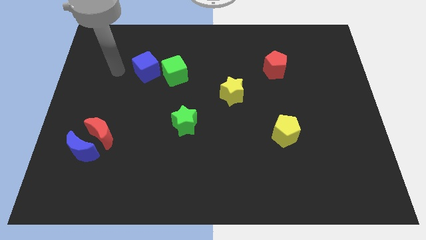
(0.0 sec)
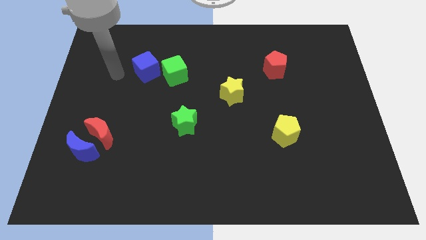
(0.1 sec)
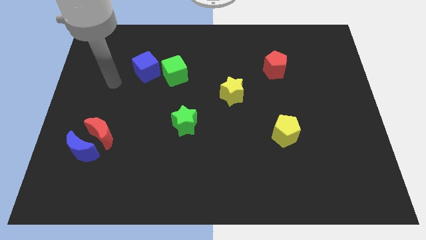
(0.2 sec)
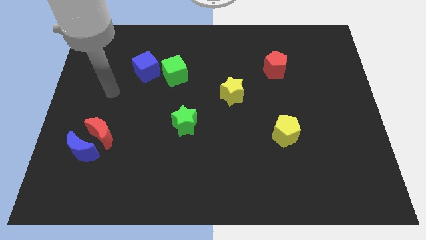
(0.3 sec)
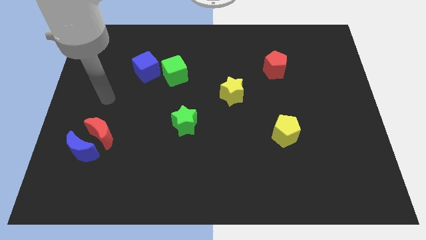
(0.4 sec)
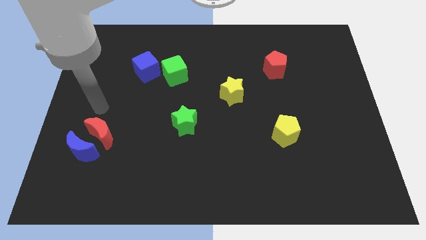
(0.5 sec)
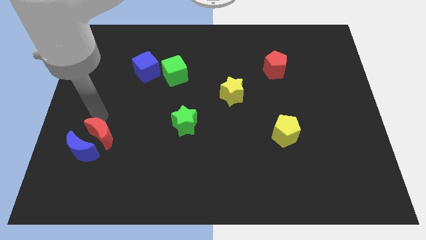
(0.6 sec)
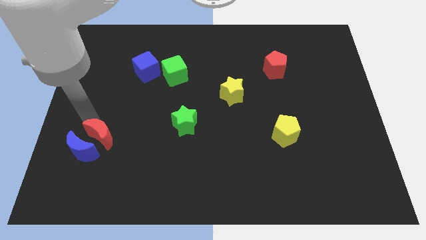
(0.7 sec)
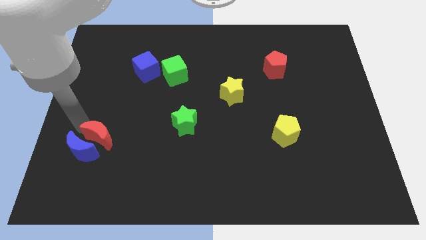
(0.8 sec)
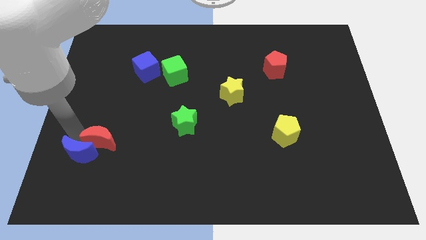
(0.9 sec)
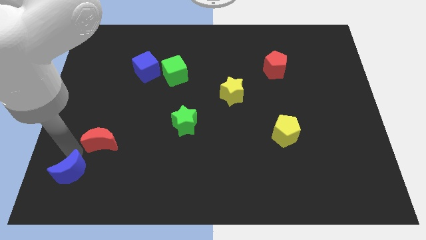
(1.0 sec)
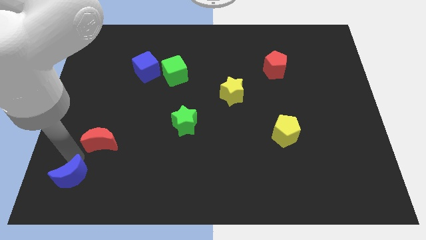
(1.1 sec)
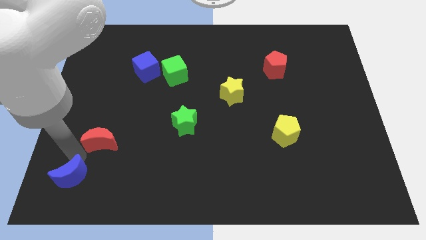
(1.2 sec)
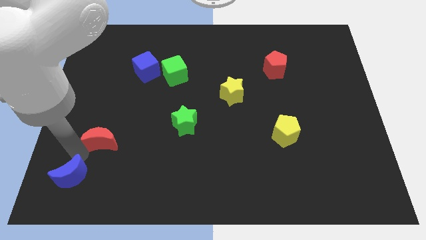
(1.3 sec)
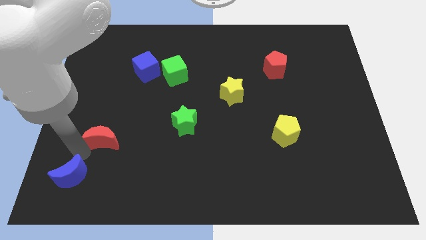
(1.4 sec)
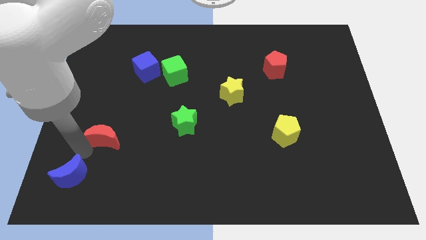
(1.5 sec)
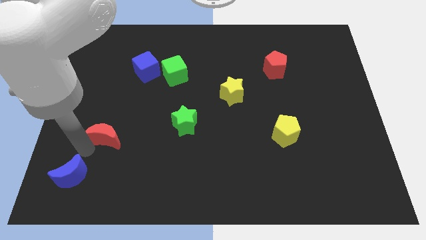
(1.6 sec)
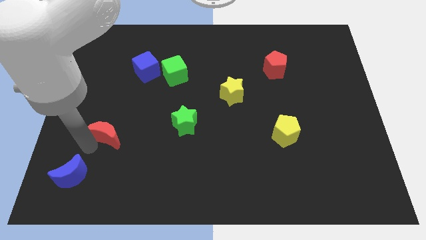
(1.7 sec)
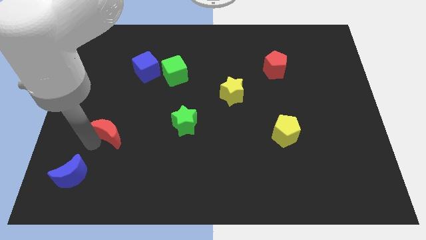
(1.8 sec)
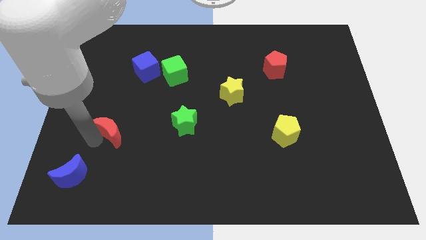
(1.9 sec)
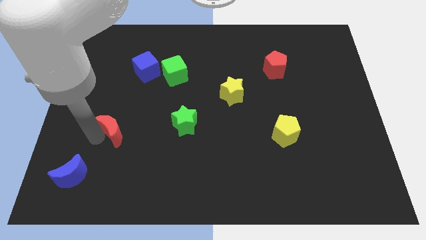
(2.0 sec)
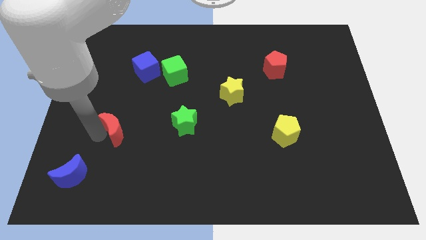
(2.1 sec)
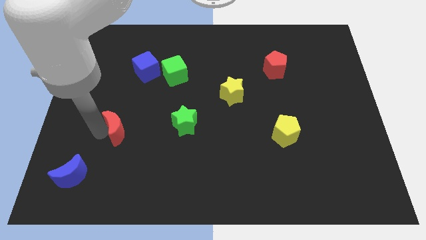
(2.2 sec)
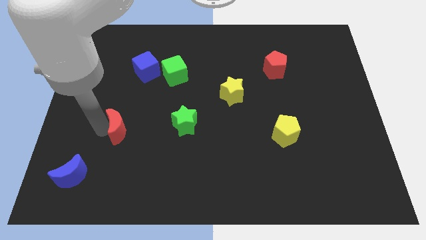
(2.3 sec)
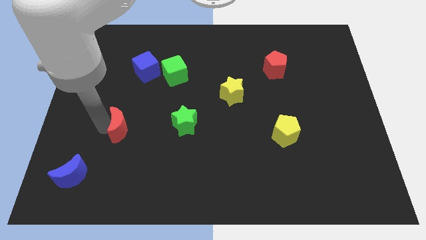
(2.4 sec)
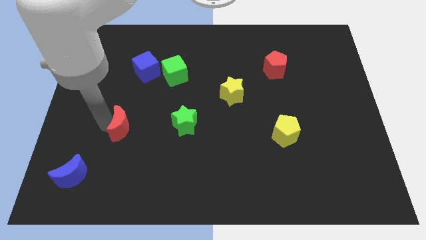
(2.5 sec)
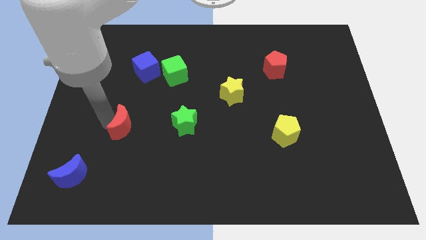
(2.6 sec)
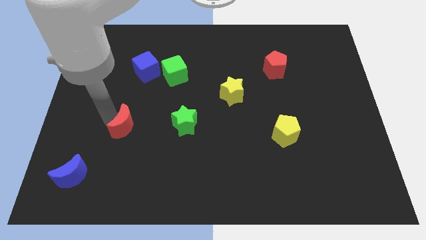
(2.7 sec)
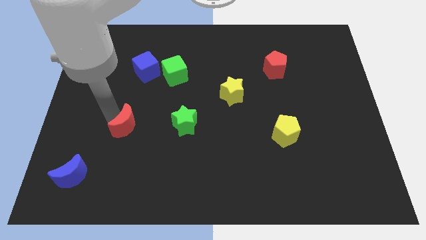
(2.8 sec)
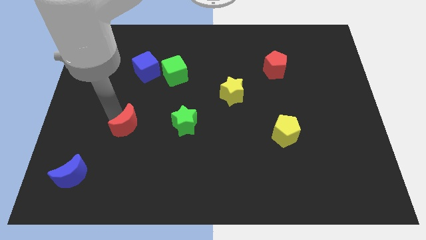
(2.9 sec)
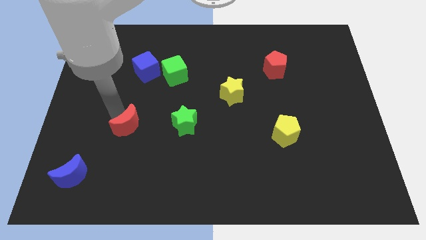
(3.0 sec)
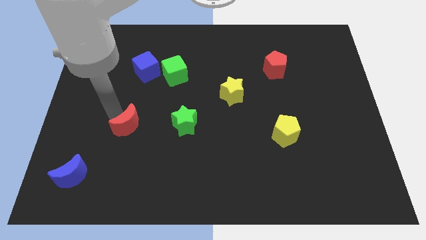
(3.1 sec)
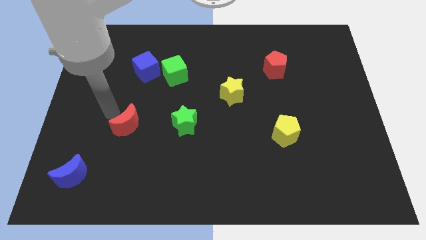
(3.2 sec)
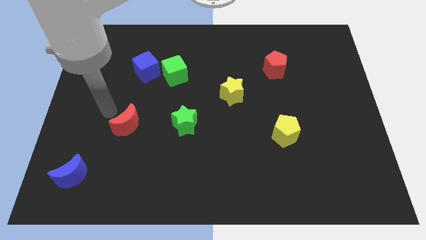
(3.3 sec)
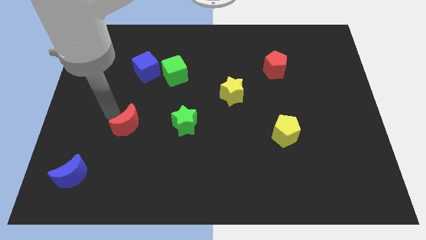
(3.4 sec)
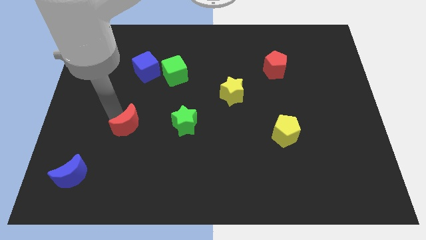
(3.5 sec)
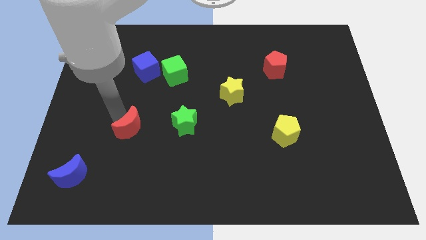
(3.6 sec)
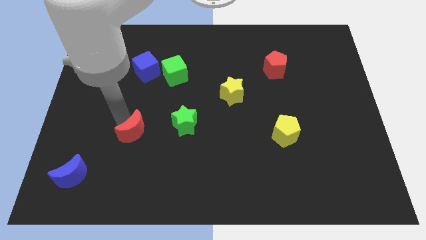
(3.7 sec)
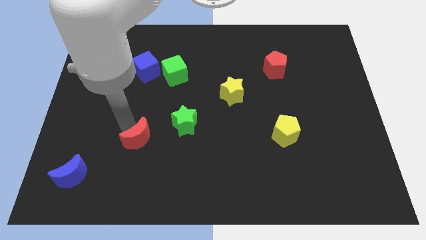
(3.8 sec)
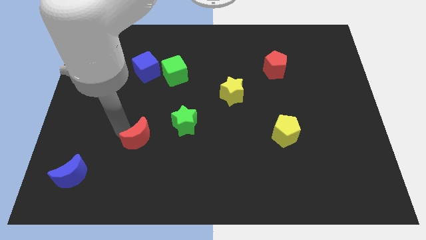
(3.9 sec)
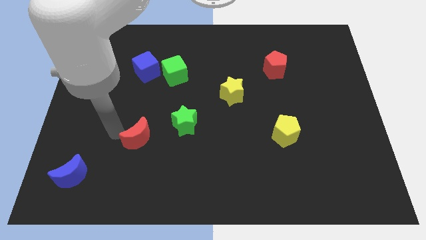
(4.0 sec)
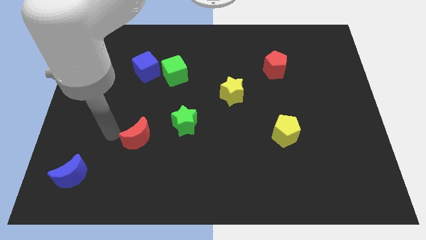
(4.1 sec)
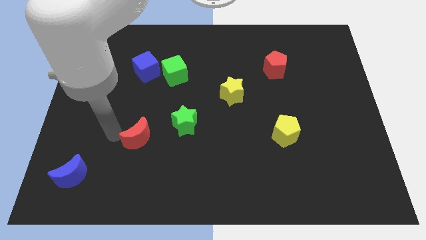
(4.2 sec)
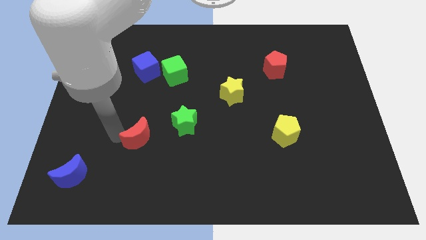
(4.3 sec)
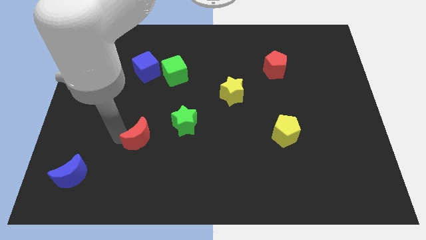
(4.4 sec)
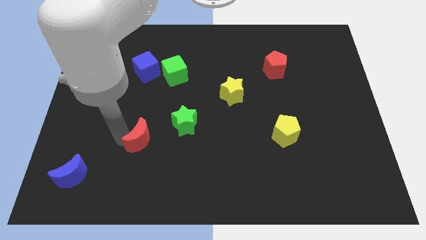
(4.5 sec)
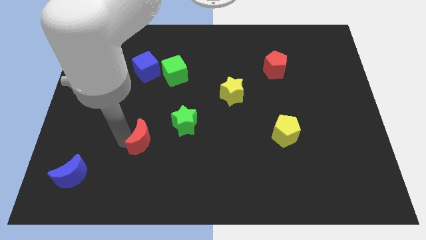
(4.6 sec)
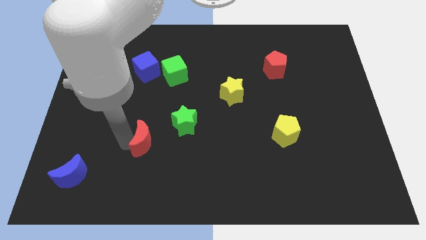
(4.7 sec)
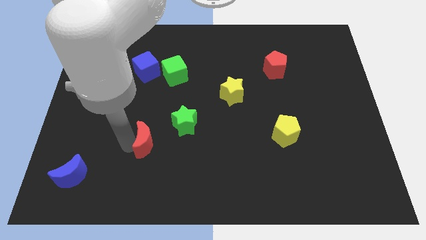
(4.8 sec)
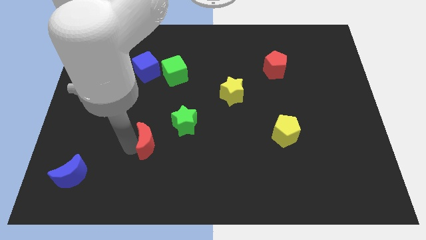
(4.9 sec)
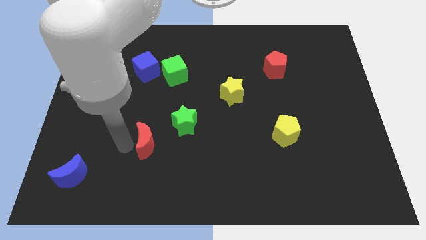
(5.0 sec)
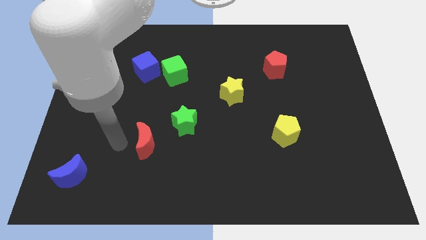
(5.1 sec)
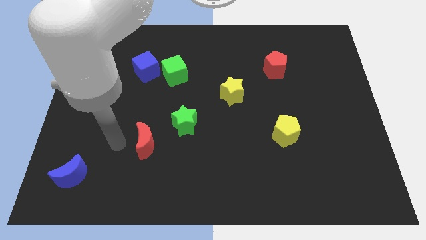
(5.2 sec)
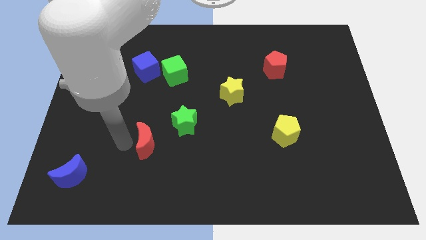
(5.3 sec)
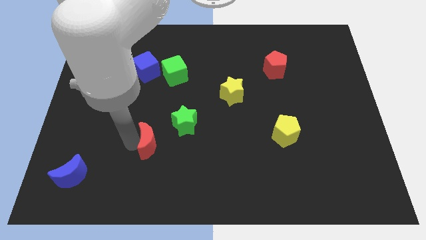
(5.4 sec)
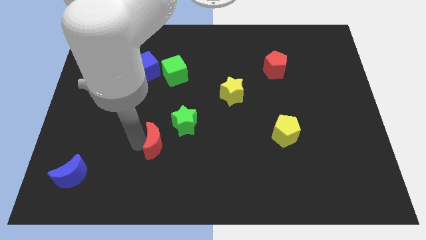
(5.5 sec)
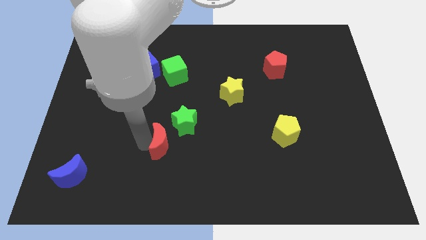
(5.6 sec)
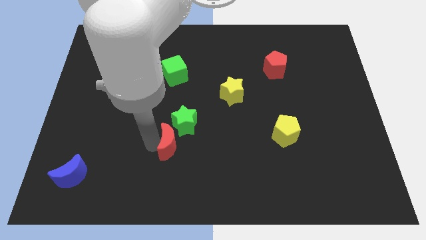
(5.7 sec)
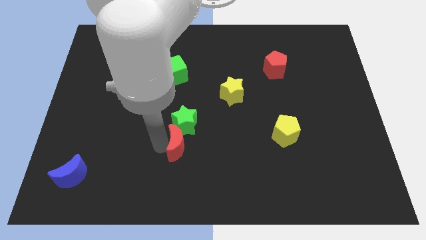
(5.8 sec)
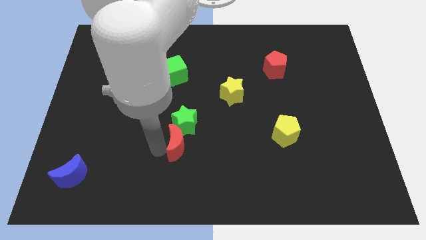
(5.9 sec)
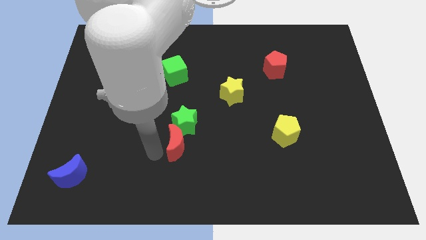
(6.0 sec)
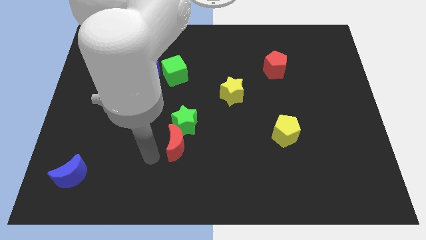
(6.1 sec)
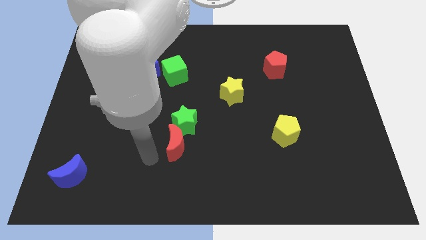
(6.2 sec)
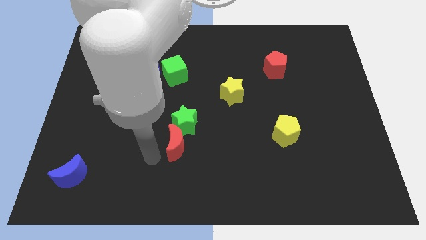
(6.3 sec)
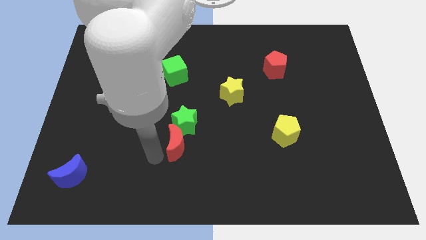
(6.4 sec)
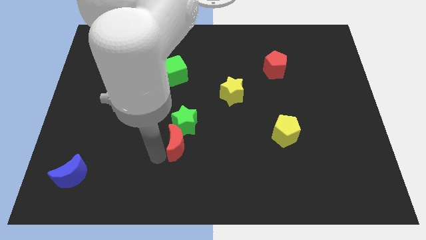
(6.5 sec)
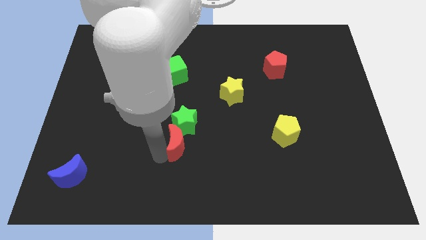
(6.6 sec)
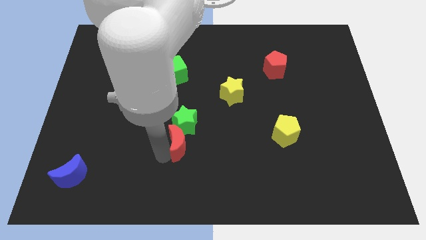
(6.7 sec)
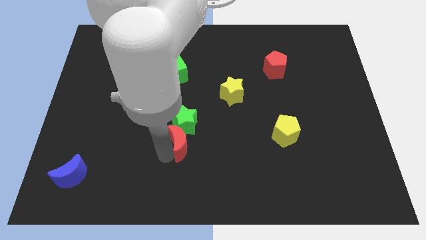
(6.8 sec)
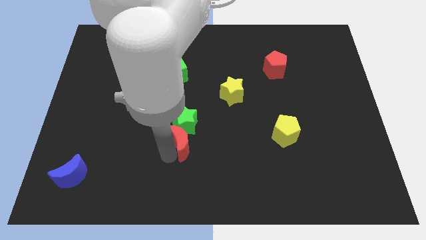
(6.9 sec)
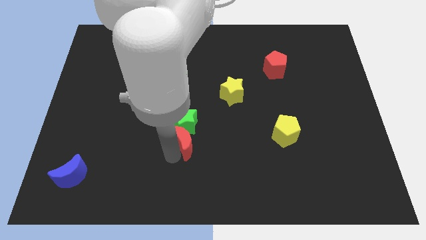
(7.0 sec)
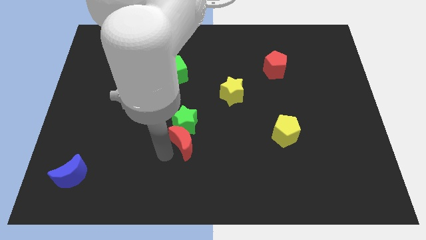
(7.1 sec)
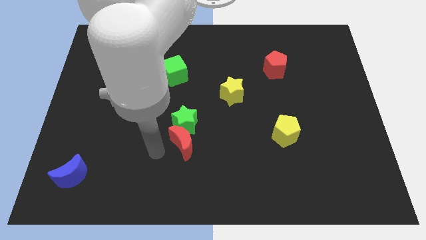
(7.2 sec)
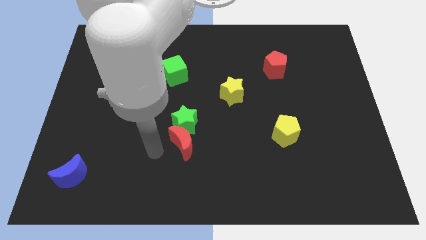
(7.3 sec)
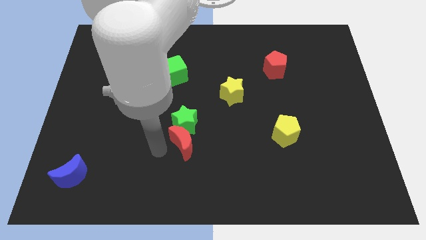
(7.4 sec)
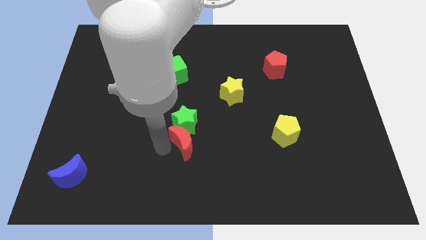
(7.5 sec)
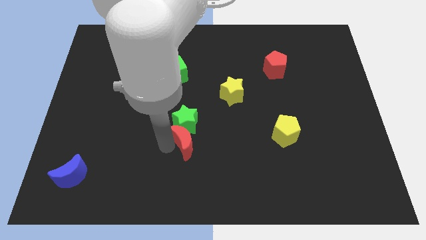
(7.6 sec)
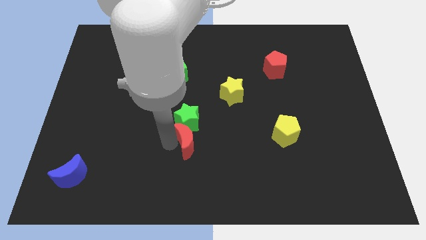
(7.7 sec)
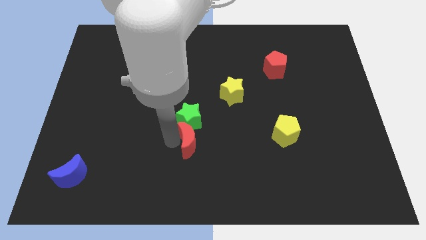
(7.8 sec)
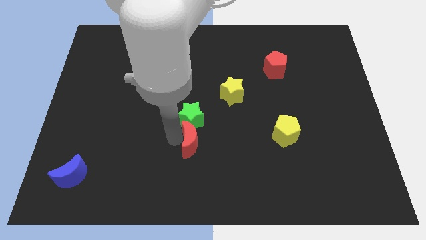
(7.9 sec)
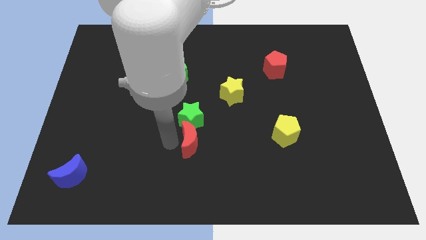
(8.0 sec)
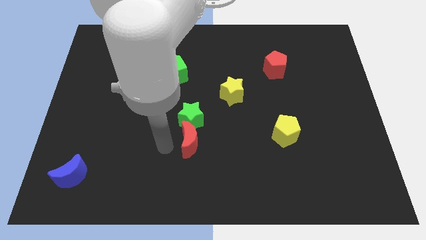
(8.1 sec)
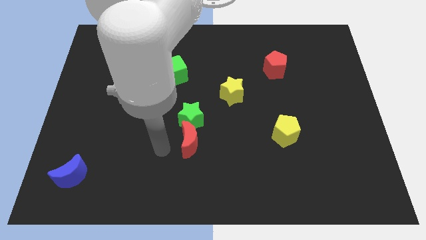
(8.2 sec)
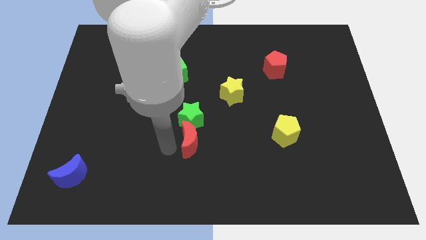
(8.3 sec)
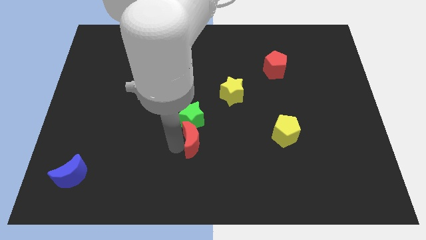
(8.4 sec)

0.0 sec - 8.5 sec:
push the red moon to the right
